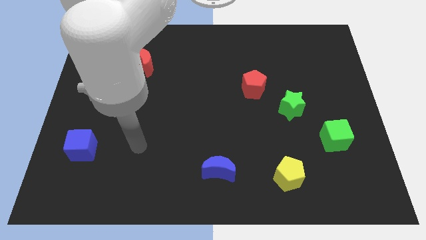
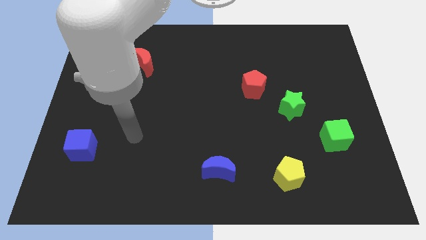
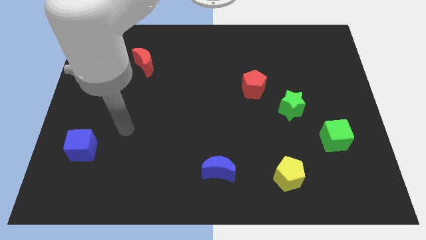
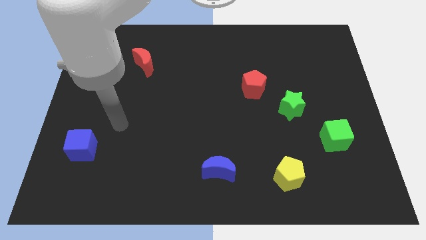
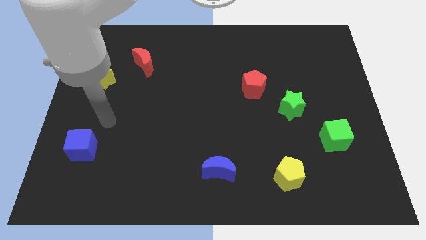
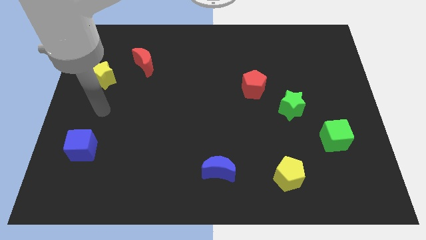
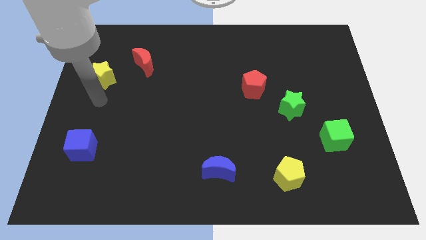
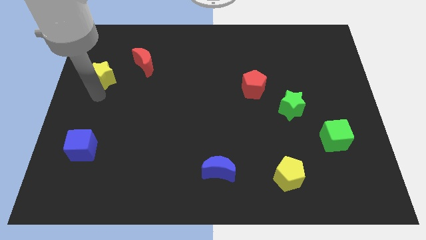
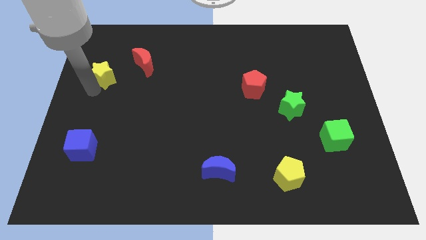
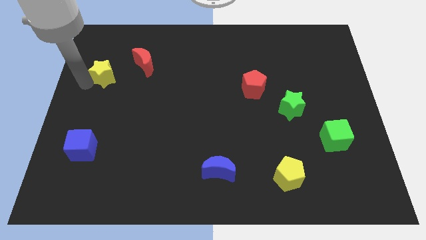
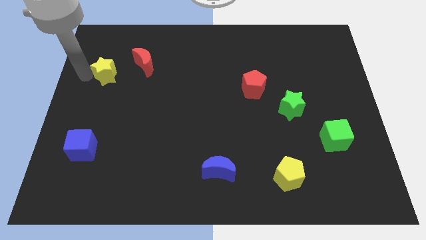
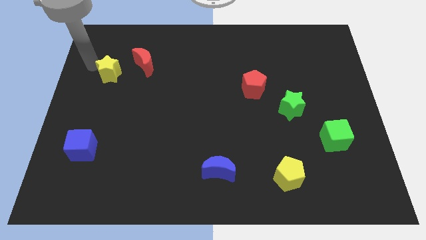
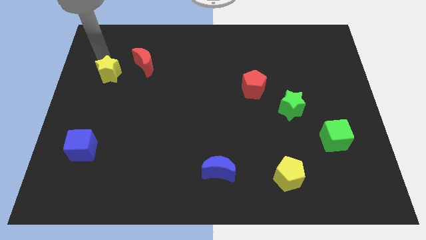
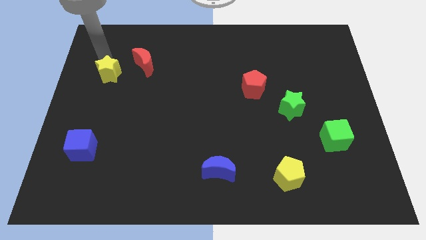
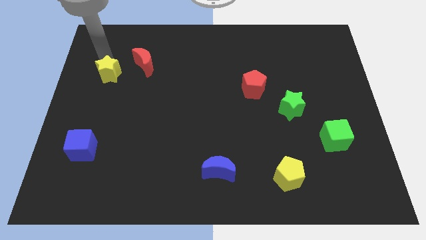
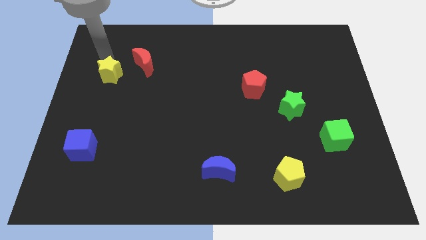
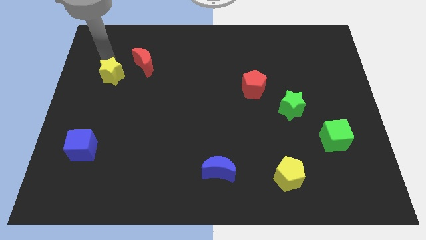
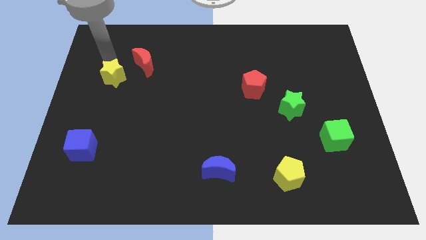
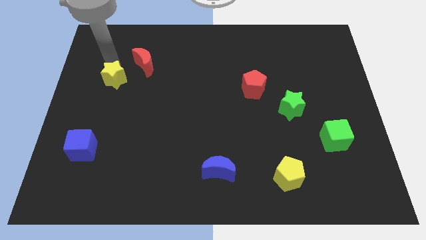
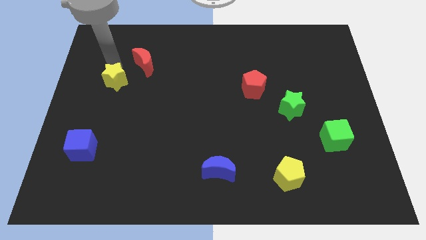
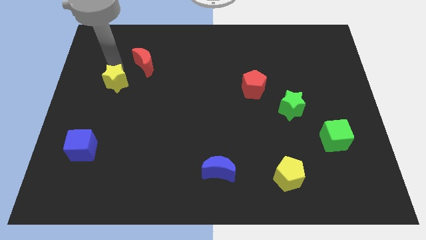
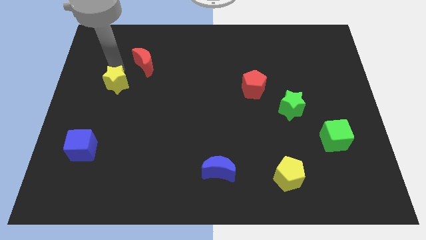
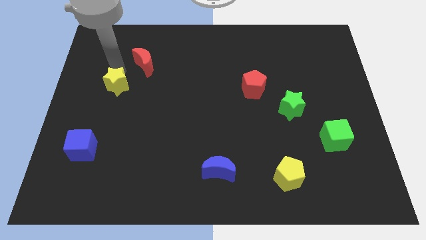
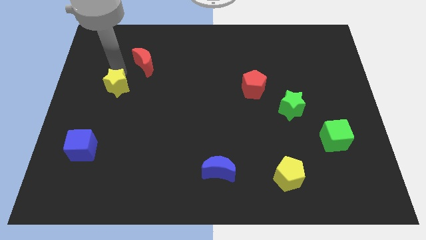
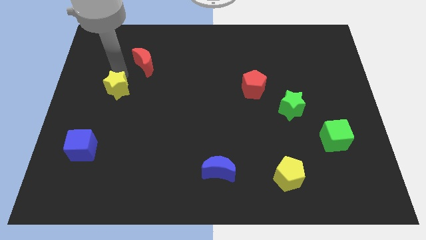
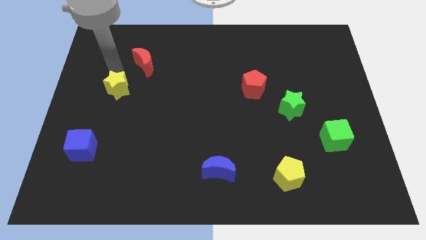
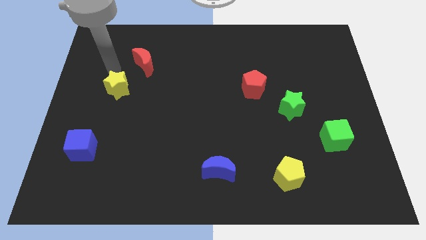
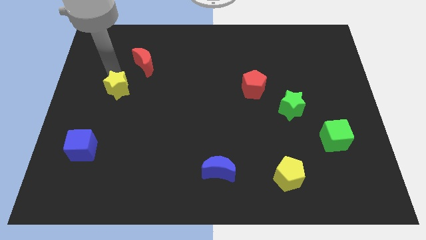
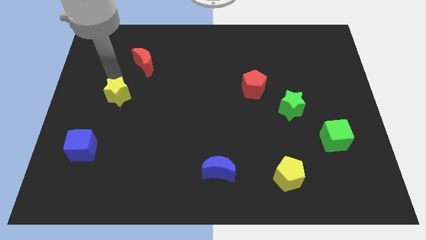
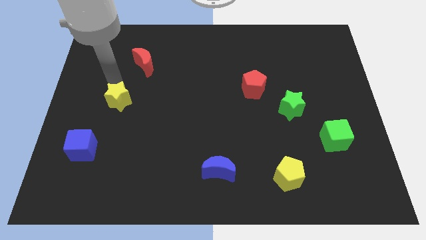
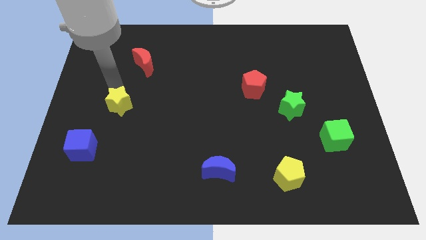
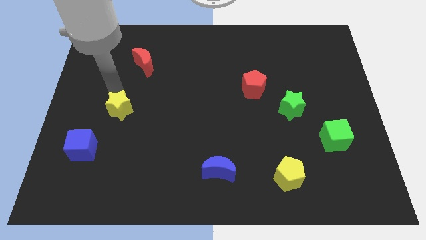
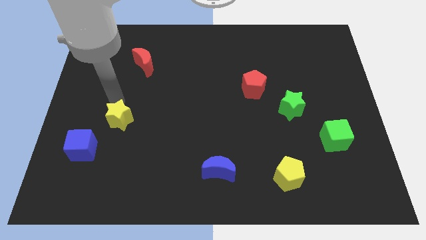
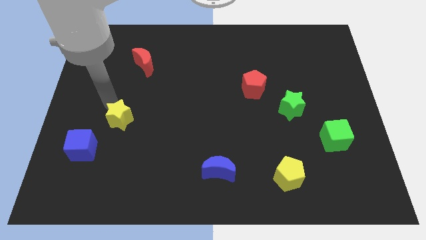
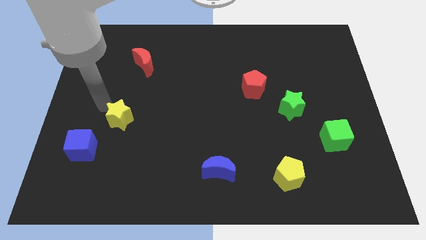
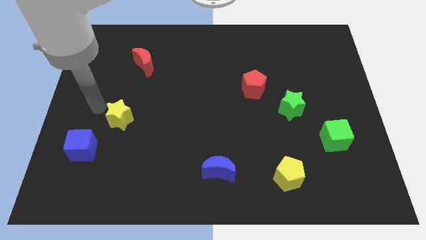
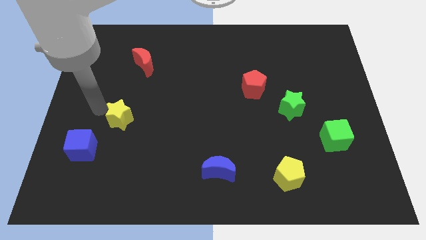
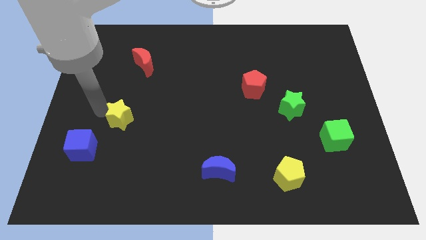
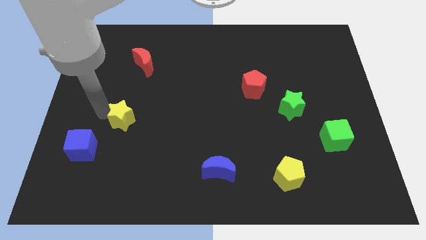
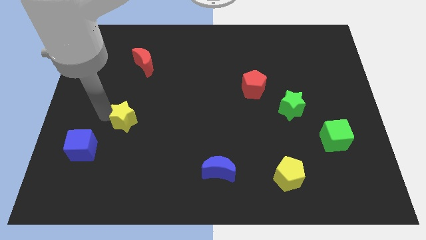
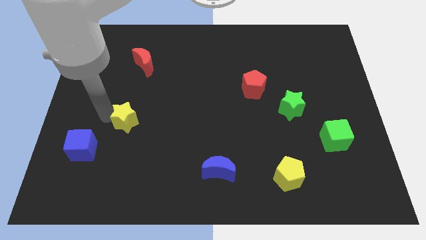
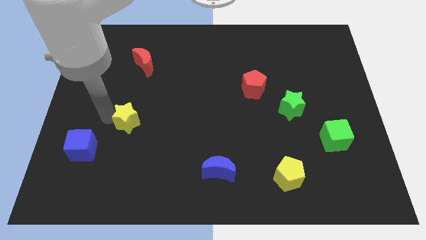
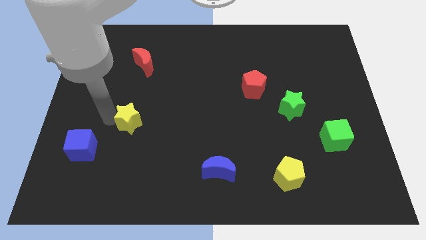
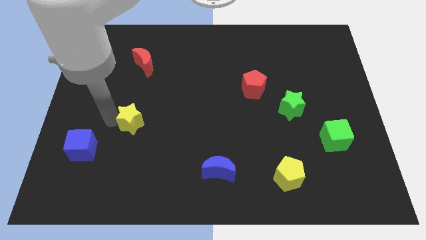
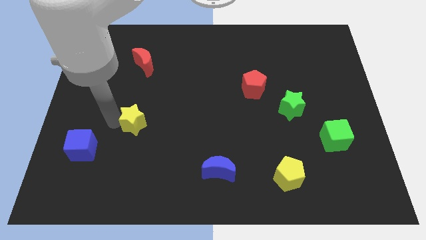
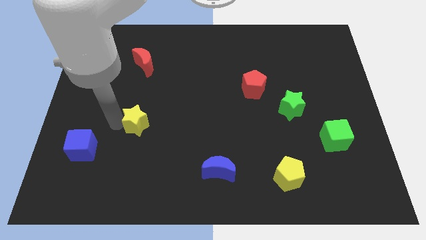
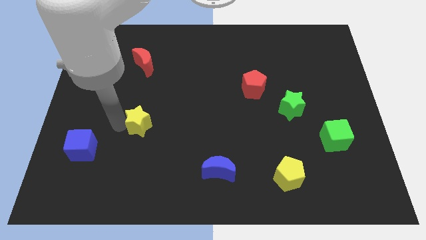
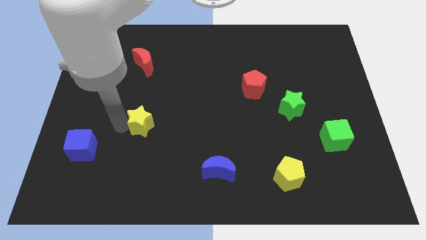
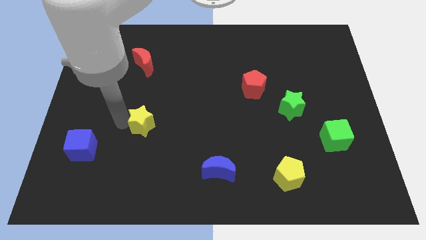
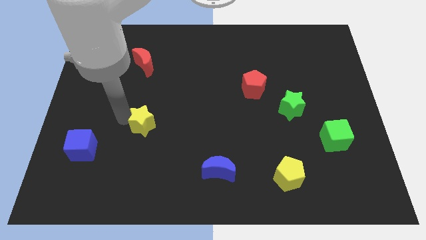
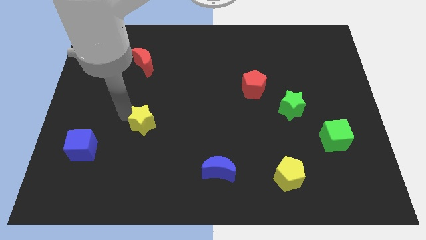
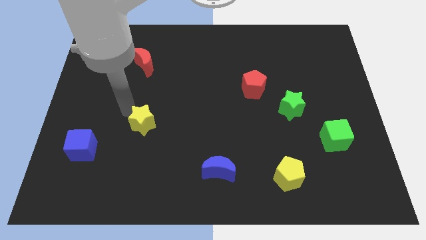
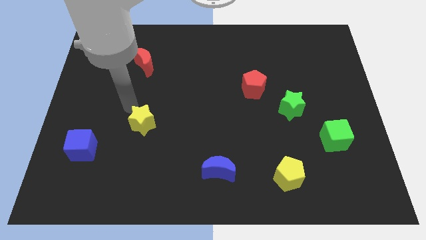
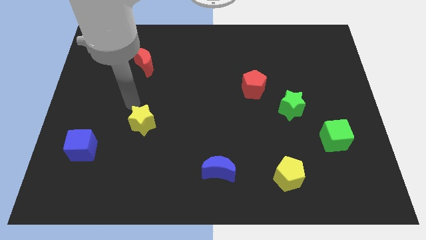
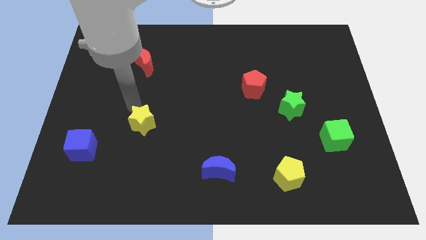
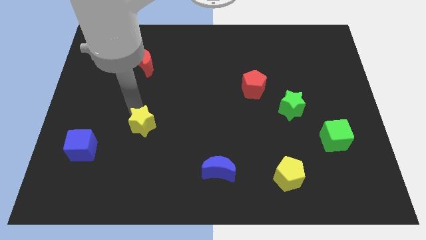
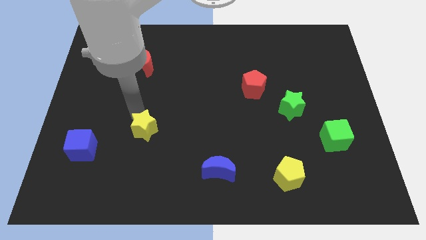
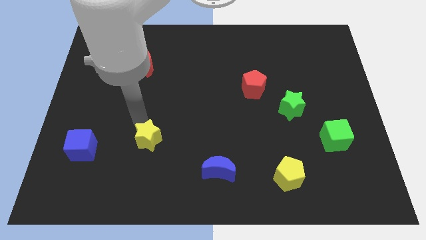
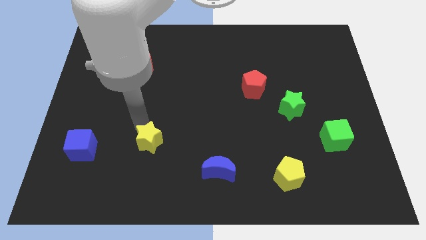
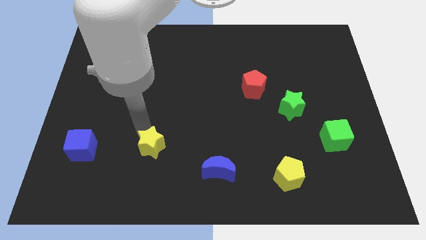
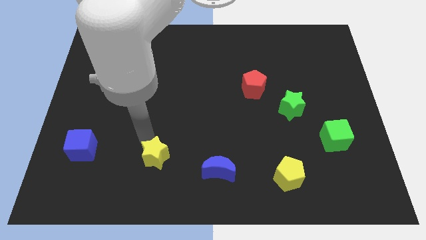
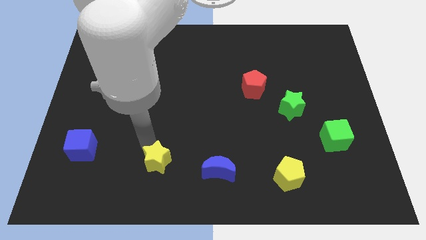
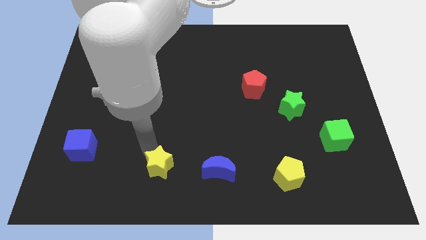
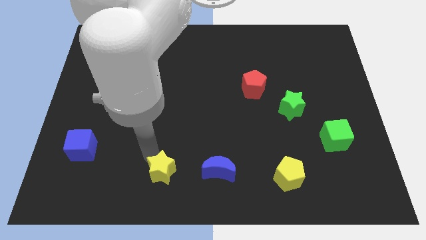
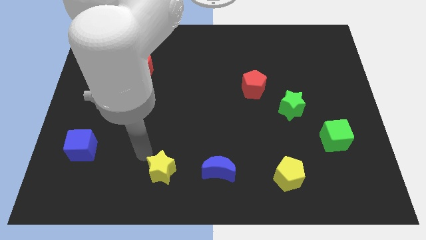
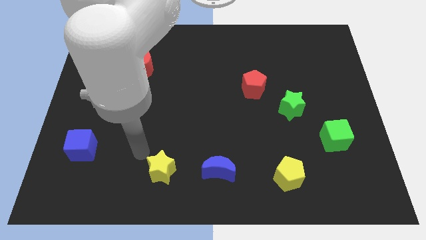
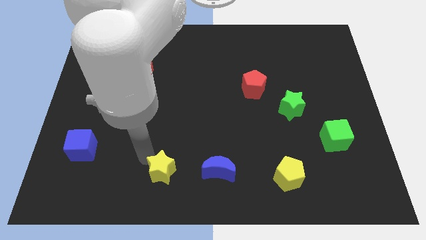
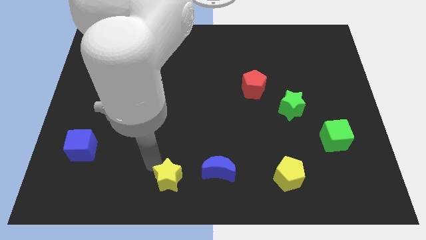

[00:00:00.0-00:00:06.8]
push the yellow star to the bottom side
